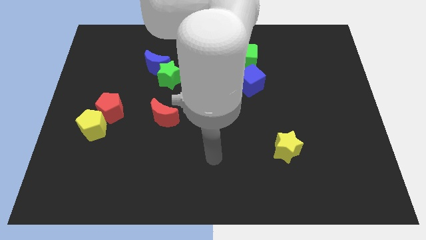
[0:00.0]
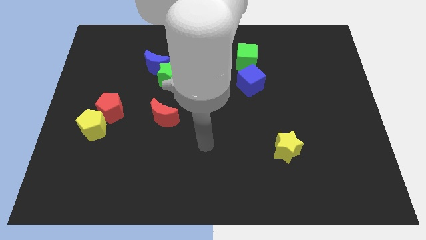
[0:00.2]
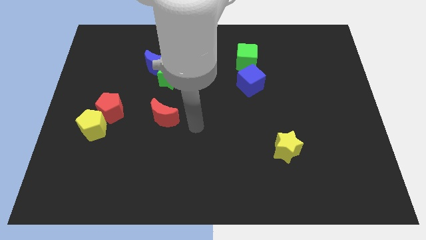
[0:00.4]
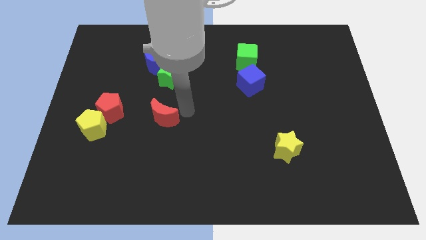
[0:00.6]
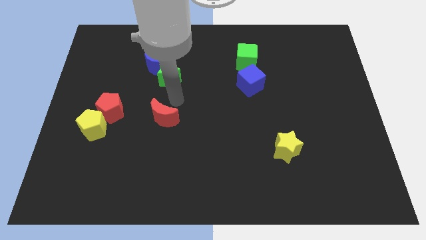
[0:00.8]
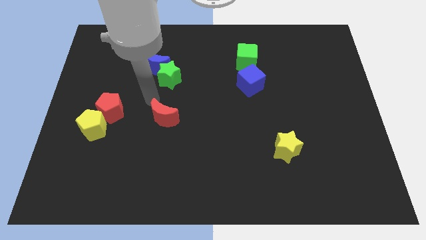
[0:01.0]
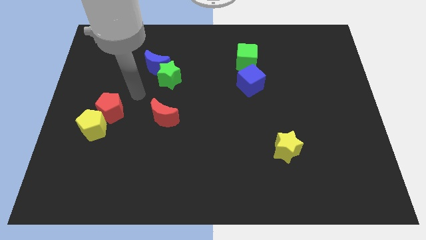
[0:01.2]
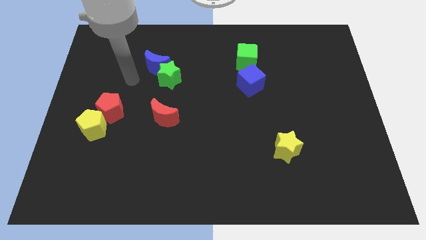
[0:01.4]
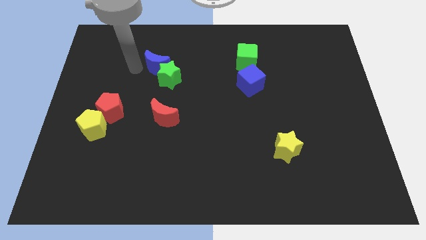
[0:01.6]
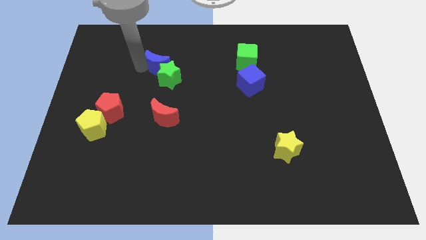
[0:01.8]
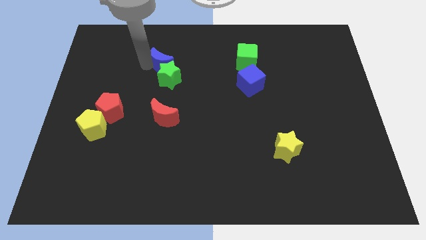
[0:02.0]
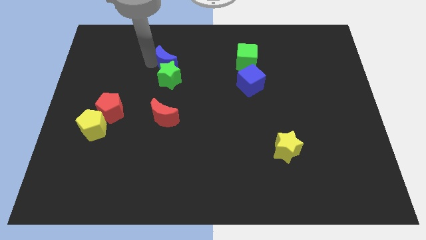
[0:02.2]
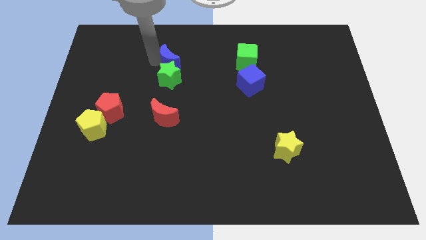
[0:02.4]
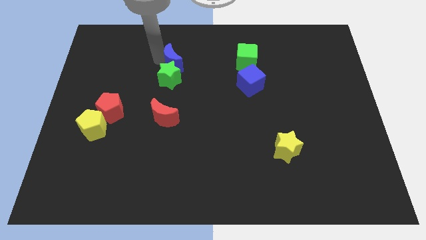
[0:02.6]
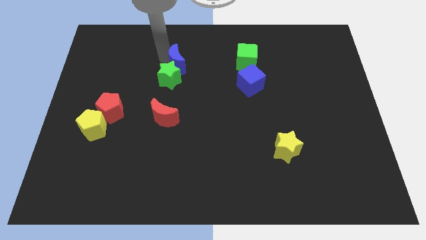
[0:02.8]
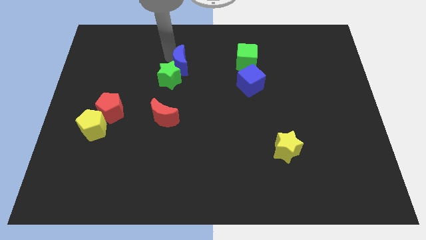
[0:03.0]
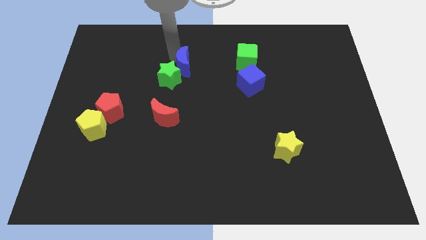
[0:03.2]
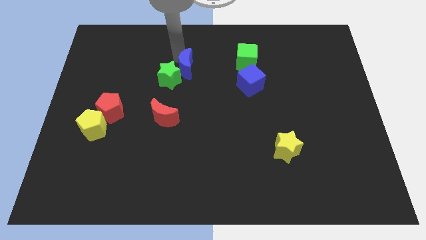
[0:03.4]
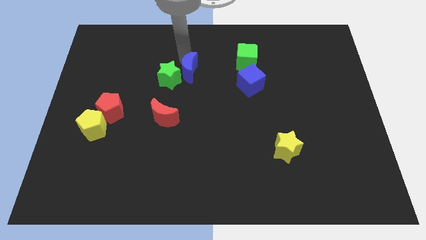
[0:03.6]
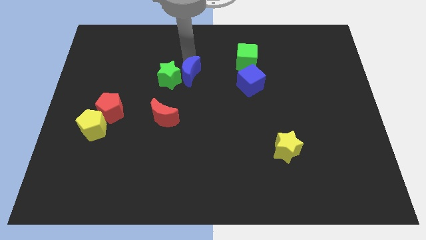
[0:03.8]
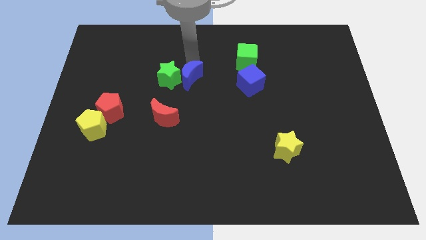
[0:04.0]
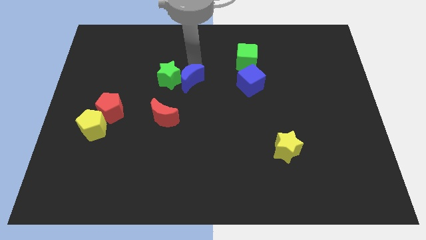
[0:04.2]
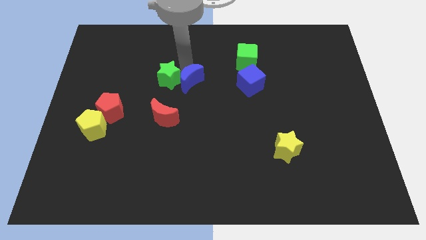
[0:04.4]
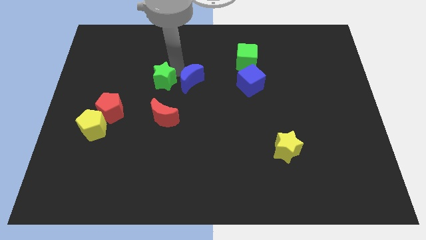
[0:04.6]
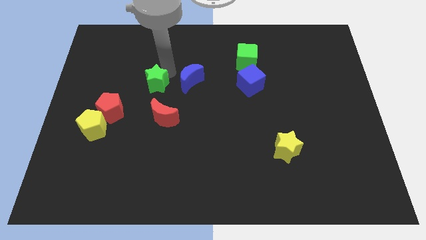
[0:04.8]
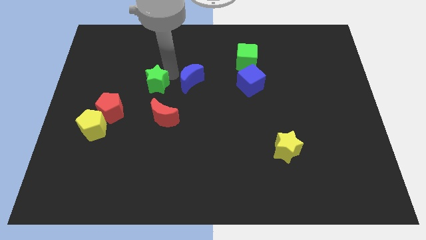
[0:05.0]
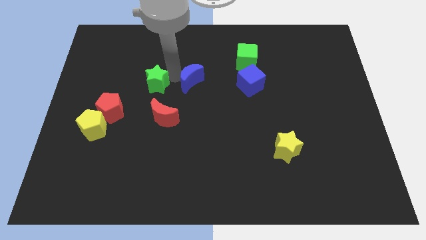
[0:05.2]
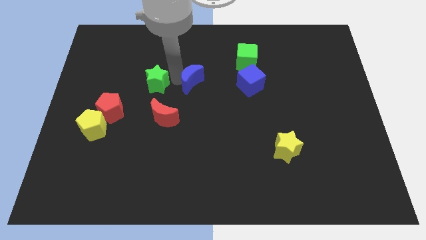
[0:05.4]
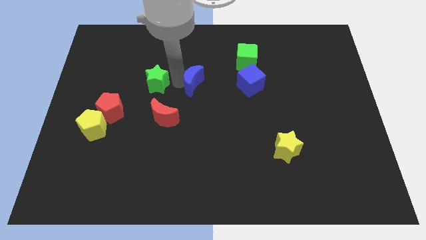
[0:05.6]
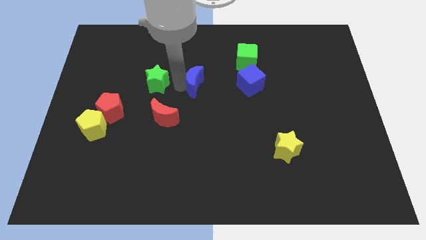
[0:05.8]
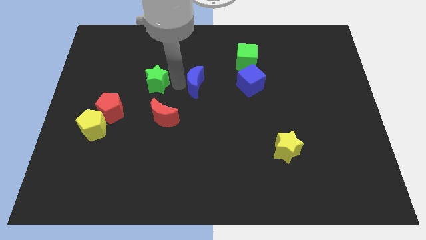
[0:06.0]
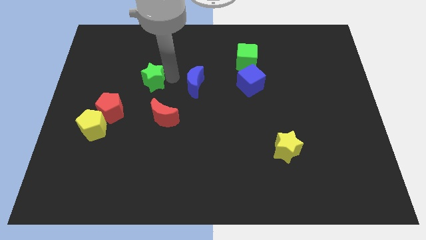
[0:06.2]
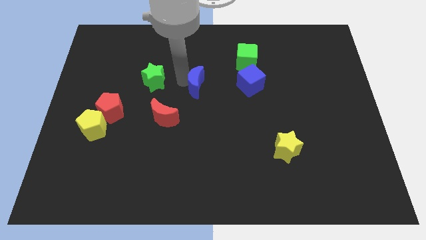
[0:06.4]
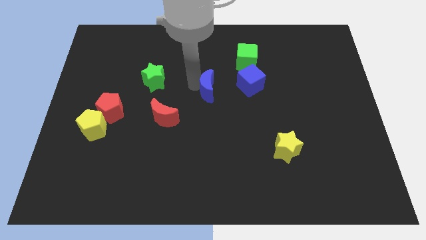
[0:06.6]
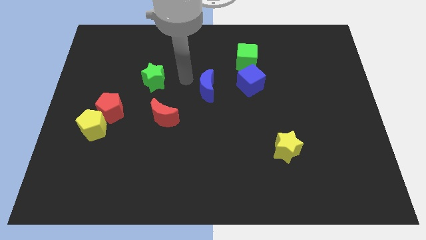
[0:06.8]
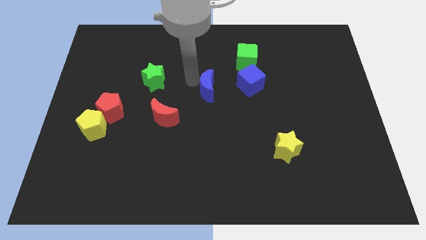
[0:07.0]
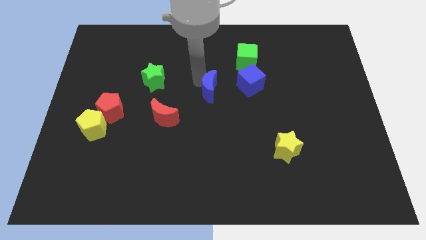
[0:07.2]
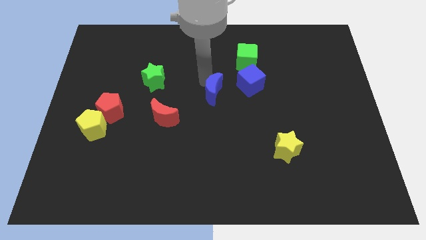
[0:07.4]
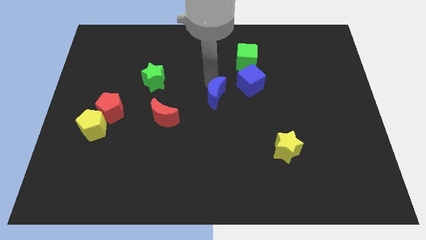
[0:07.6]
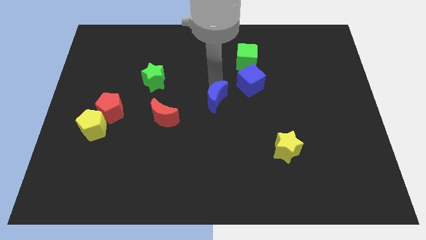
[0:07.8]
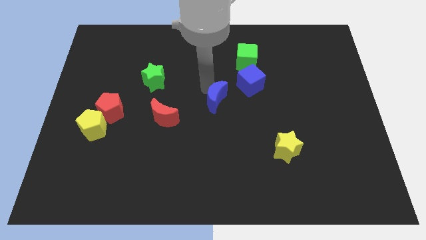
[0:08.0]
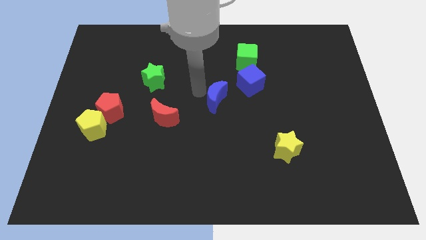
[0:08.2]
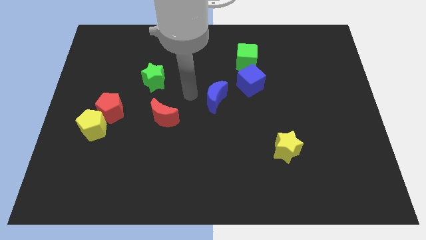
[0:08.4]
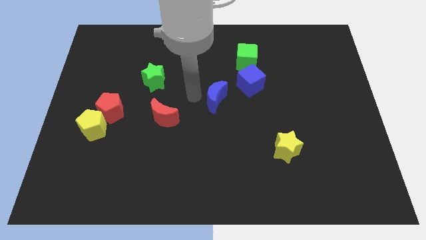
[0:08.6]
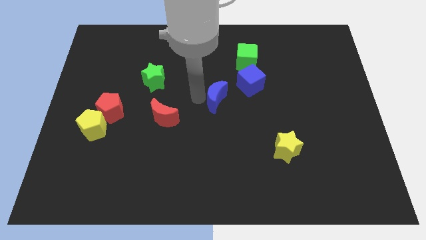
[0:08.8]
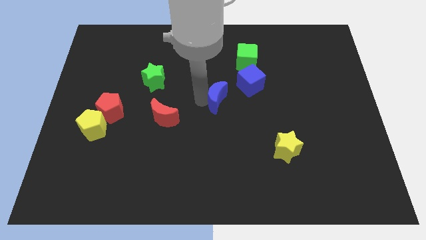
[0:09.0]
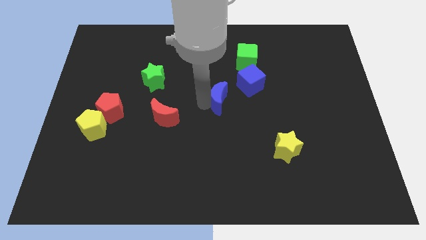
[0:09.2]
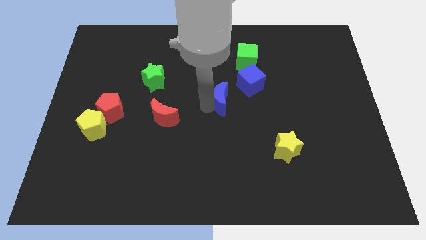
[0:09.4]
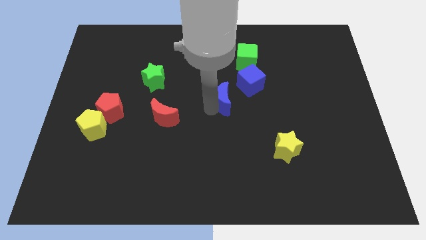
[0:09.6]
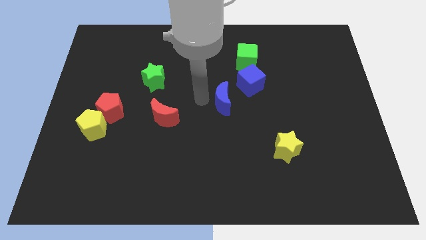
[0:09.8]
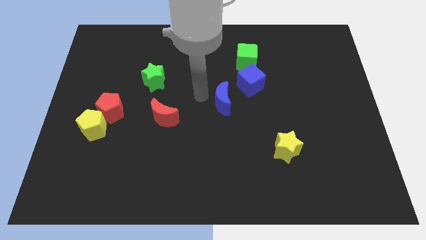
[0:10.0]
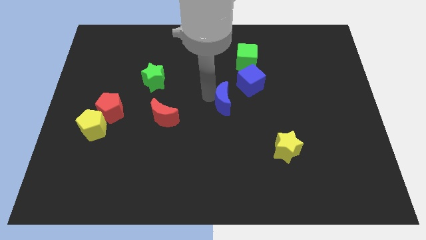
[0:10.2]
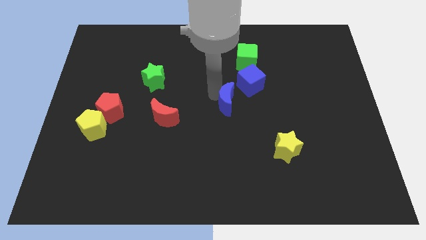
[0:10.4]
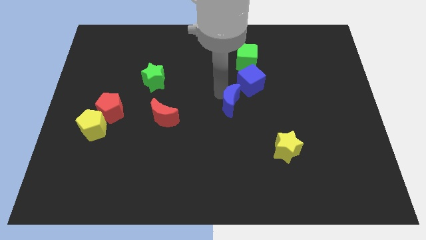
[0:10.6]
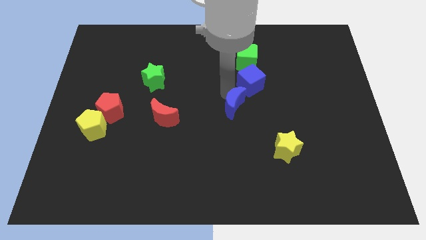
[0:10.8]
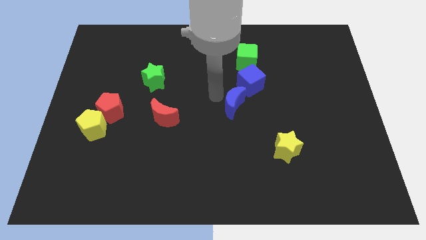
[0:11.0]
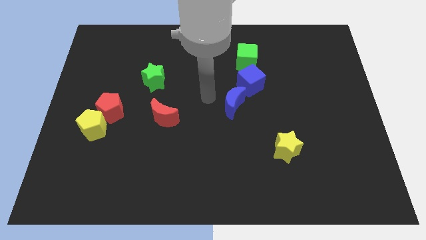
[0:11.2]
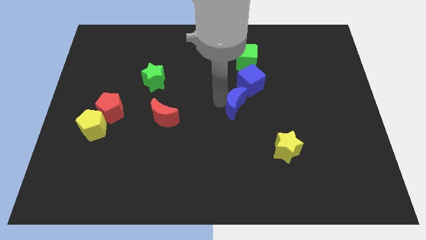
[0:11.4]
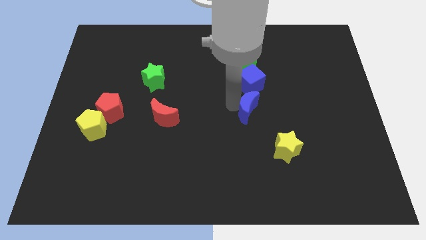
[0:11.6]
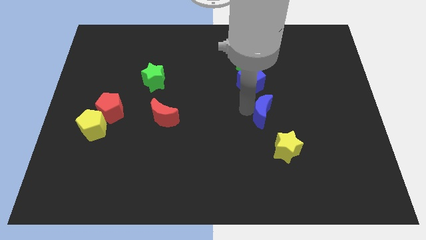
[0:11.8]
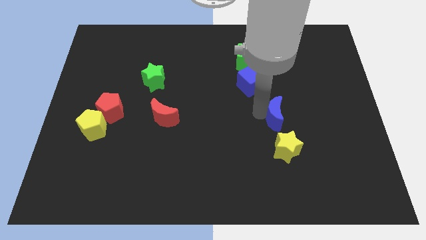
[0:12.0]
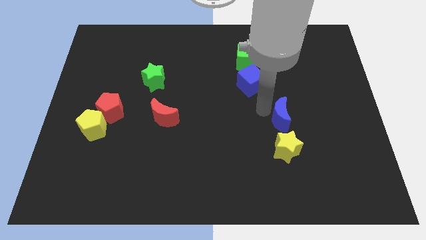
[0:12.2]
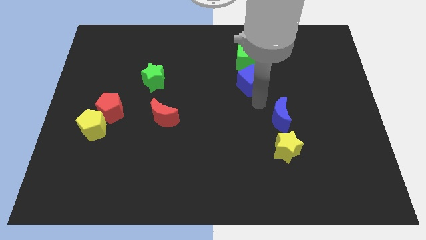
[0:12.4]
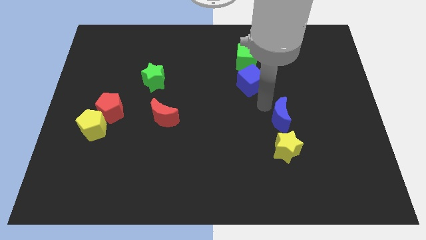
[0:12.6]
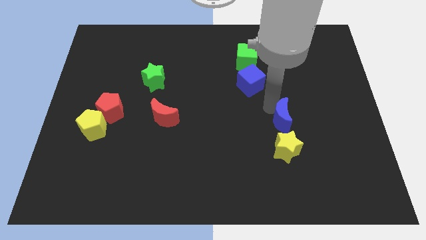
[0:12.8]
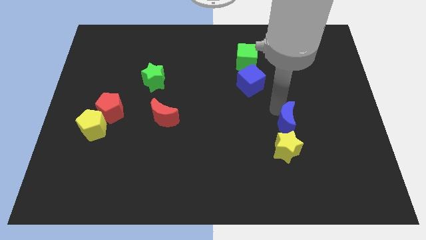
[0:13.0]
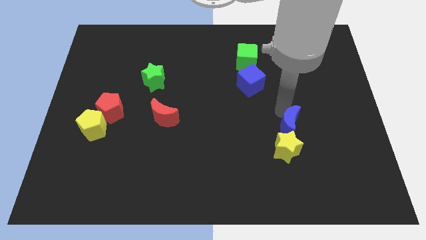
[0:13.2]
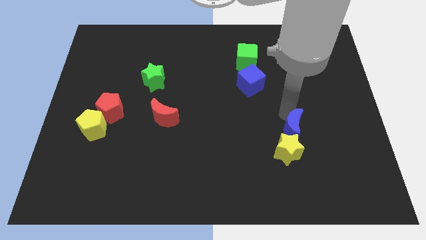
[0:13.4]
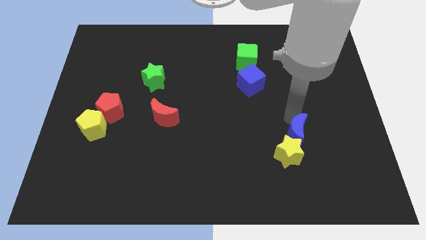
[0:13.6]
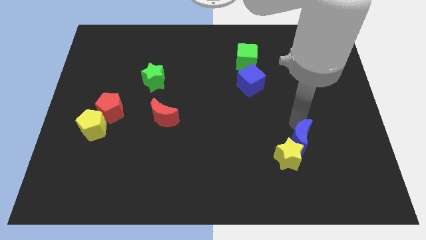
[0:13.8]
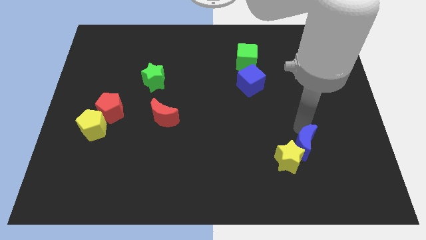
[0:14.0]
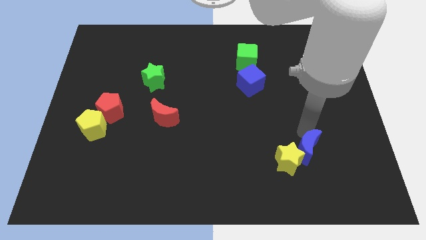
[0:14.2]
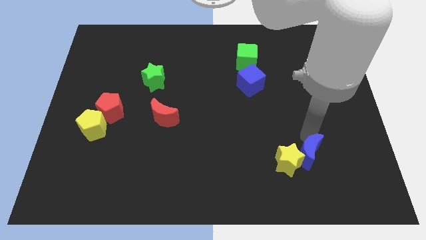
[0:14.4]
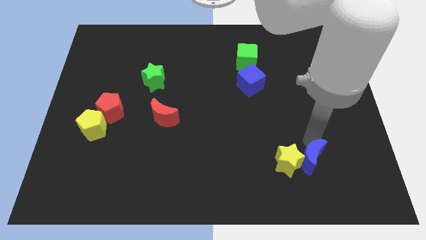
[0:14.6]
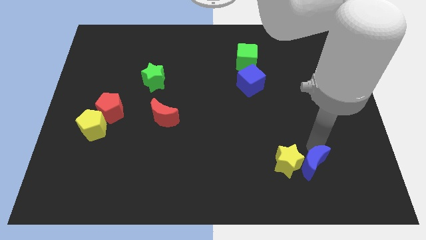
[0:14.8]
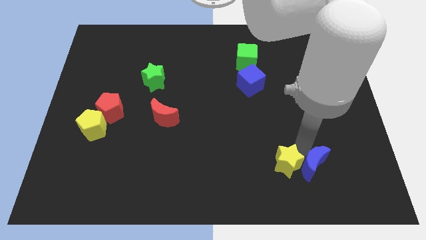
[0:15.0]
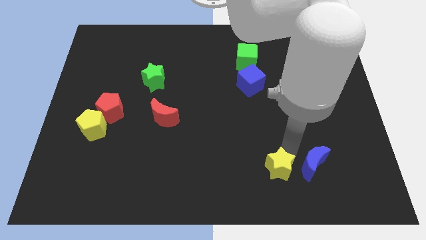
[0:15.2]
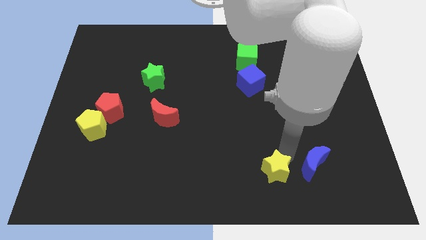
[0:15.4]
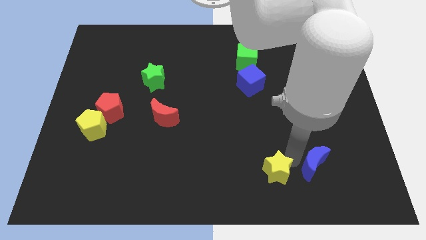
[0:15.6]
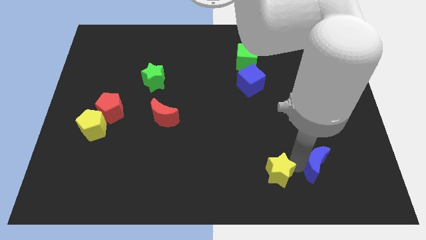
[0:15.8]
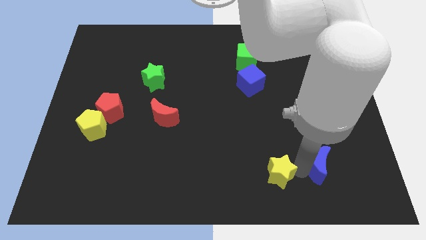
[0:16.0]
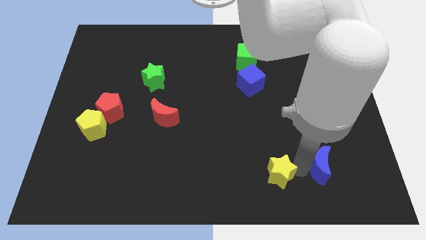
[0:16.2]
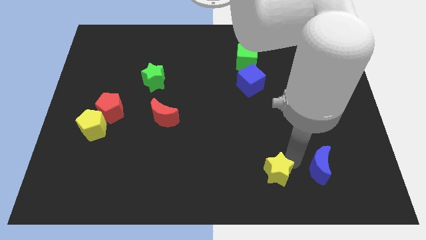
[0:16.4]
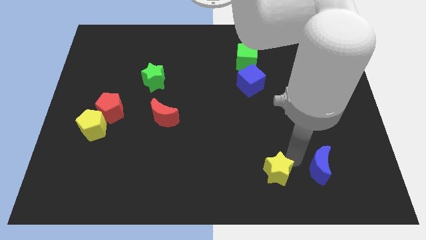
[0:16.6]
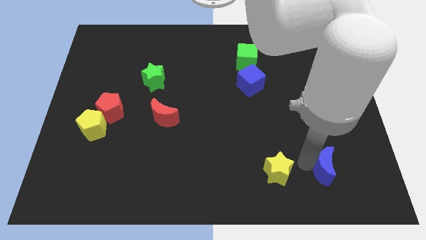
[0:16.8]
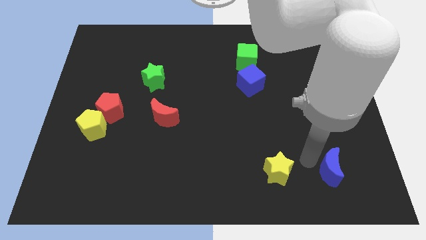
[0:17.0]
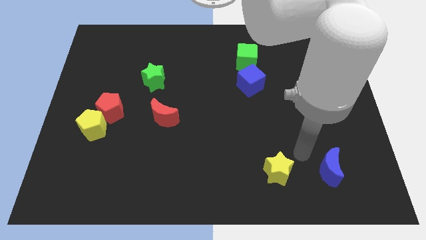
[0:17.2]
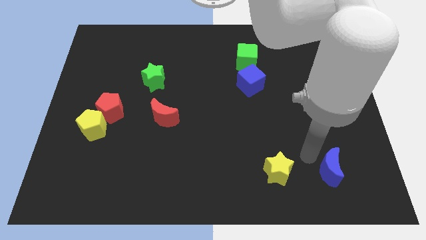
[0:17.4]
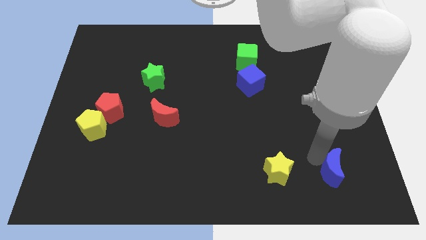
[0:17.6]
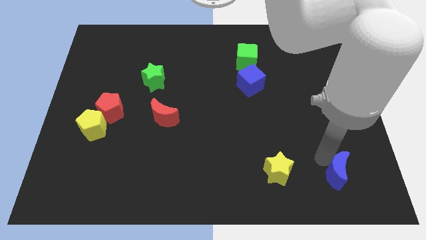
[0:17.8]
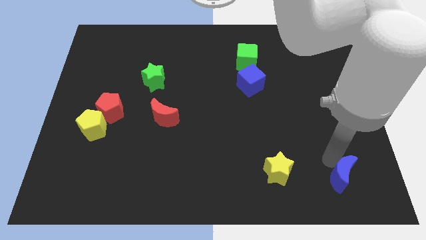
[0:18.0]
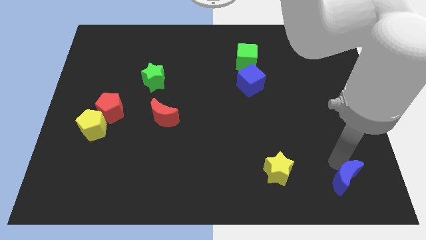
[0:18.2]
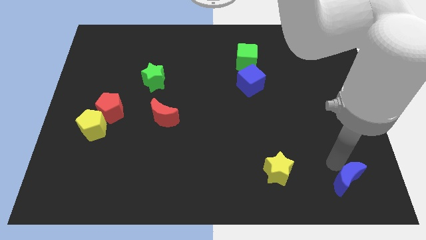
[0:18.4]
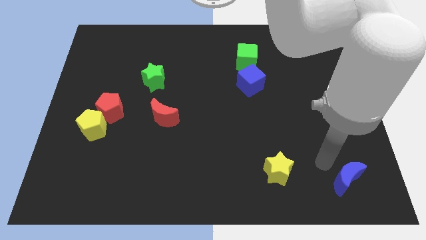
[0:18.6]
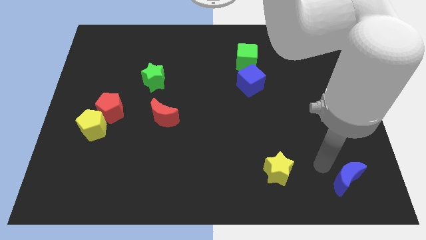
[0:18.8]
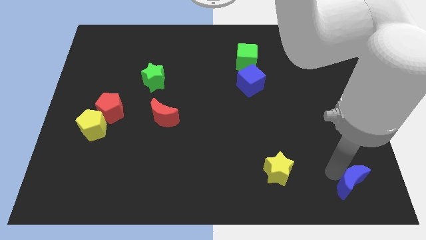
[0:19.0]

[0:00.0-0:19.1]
slide the blue moon to the bottom right corner
